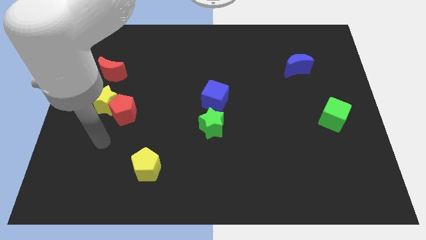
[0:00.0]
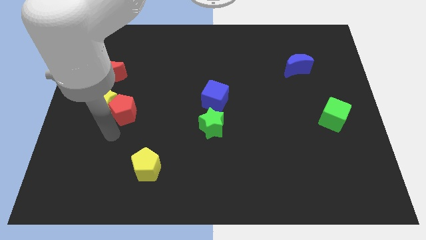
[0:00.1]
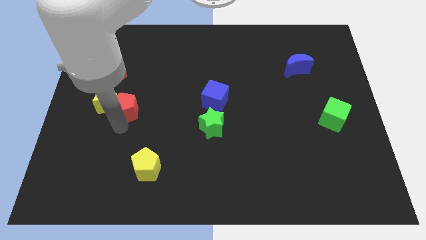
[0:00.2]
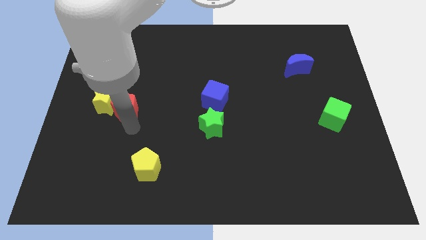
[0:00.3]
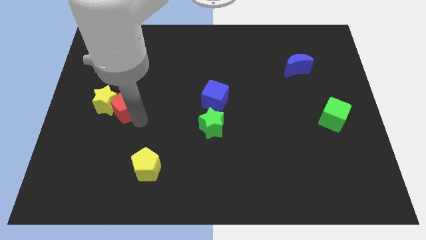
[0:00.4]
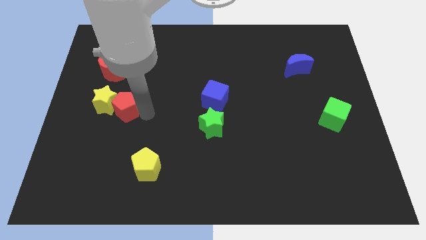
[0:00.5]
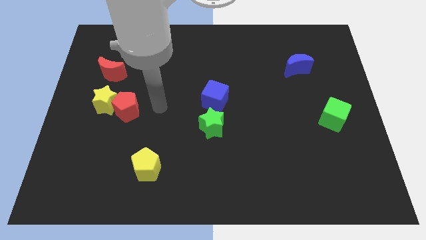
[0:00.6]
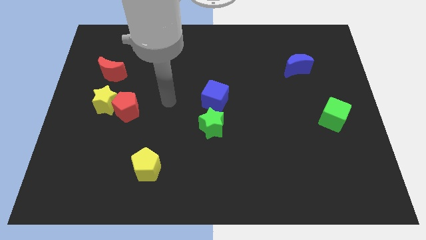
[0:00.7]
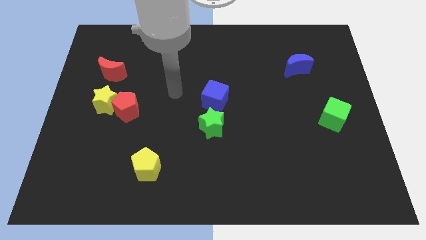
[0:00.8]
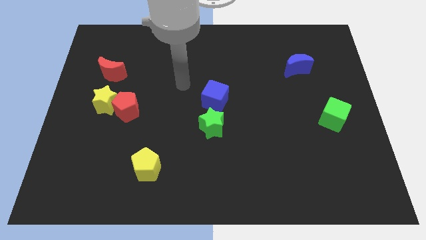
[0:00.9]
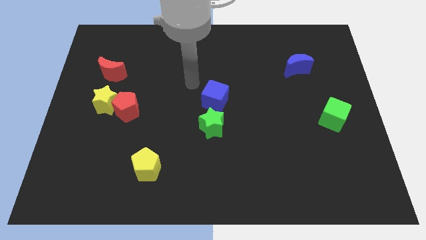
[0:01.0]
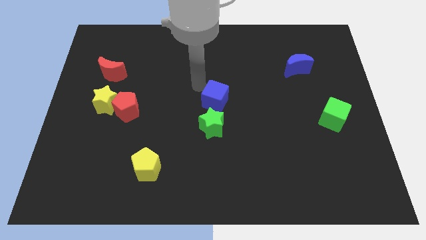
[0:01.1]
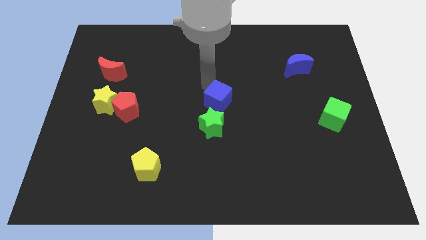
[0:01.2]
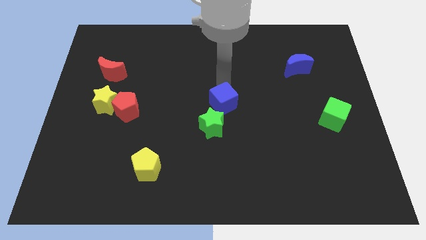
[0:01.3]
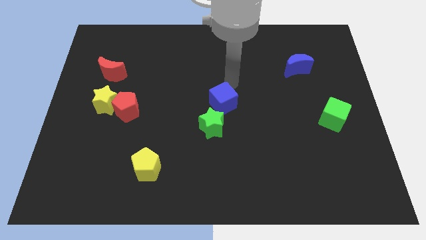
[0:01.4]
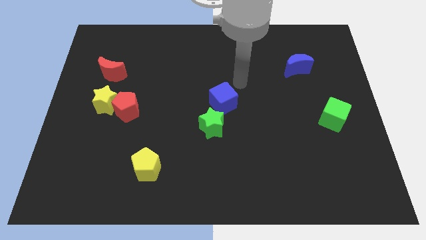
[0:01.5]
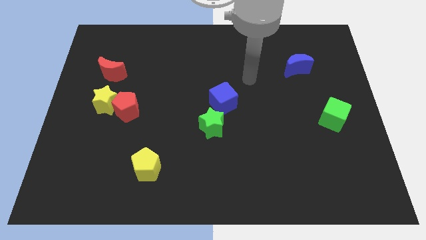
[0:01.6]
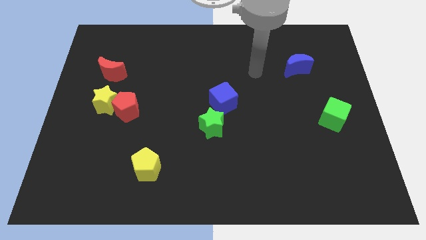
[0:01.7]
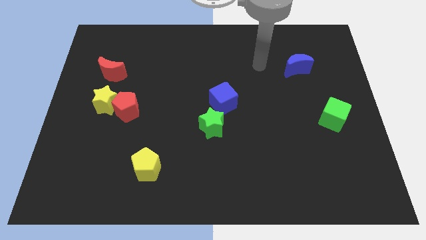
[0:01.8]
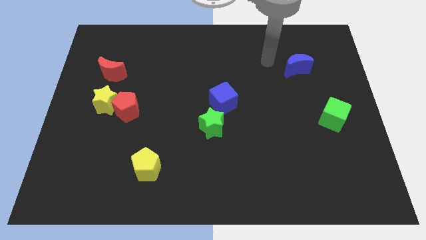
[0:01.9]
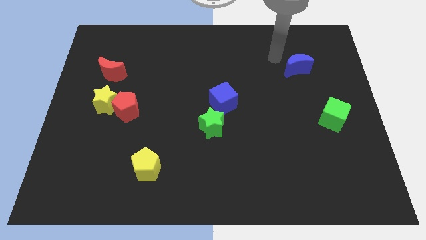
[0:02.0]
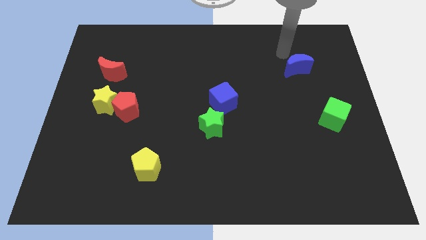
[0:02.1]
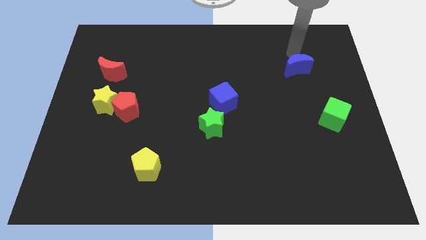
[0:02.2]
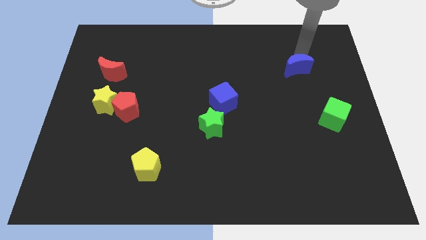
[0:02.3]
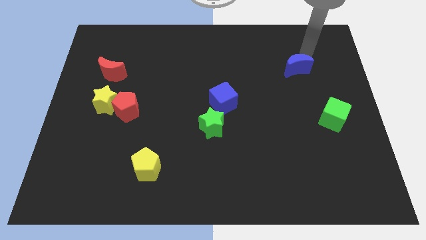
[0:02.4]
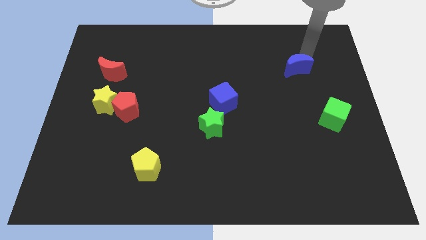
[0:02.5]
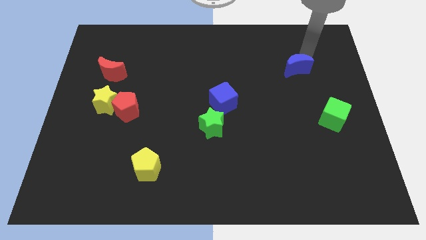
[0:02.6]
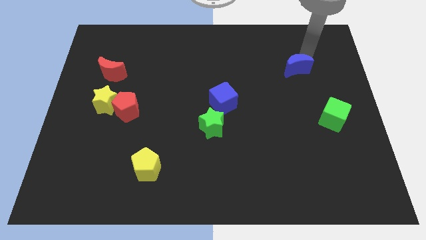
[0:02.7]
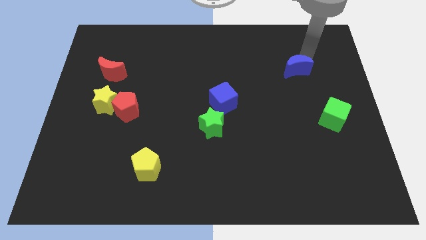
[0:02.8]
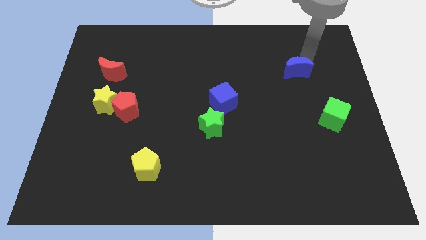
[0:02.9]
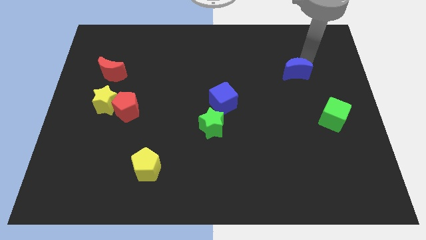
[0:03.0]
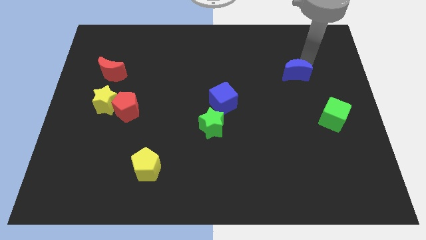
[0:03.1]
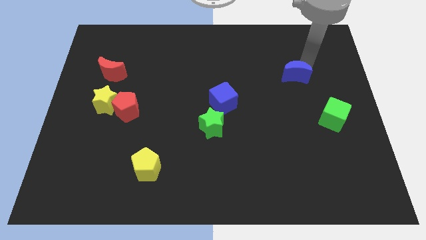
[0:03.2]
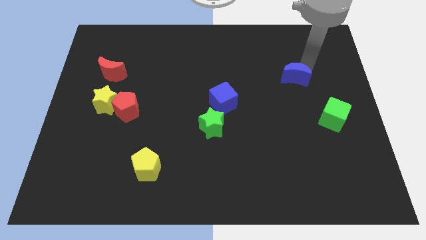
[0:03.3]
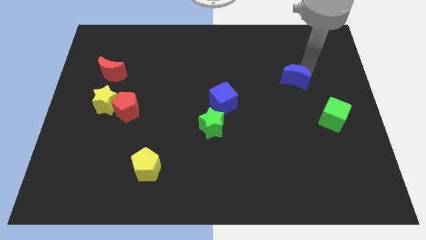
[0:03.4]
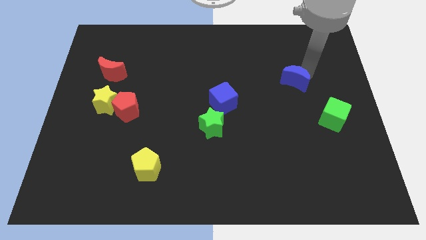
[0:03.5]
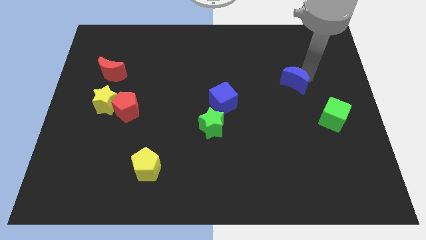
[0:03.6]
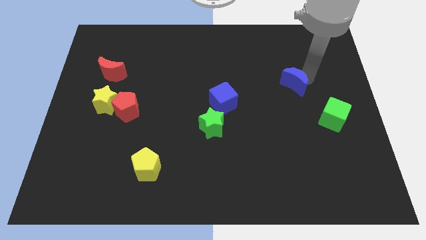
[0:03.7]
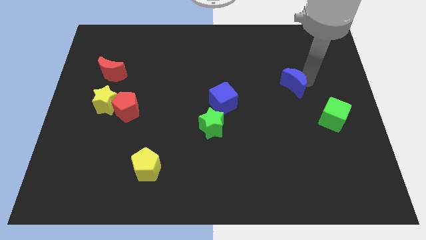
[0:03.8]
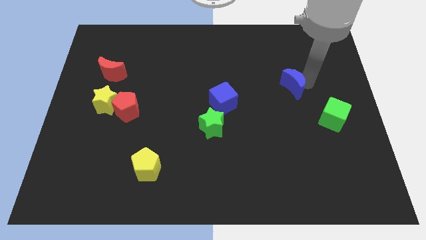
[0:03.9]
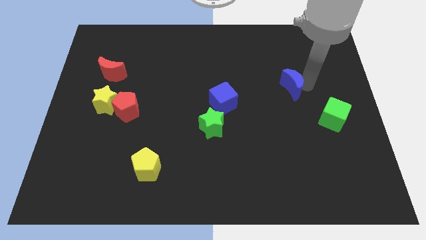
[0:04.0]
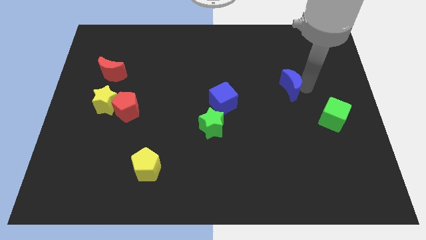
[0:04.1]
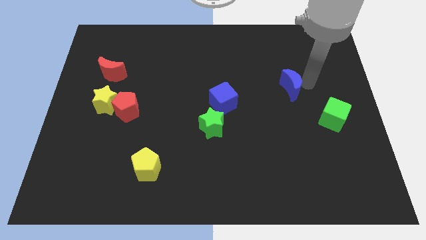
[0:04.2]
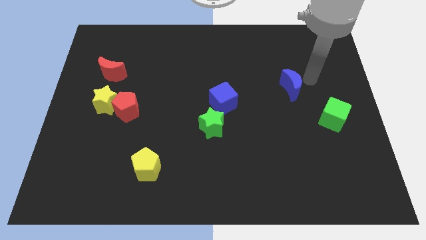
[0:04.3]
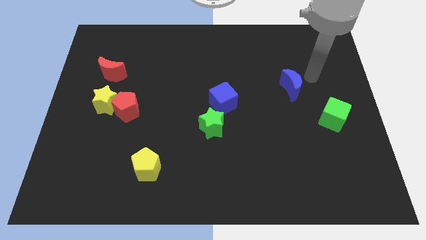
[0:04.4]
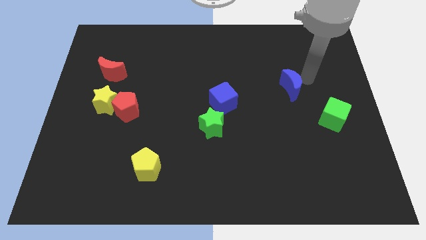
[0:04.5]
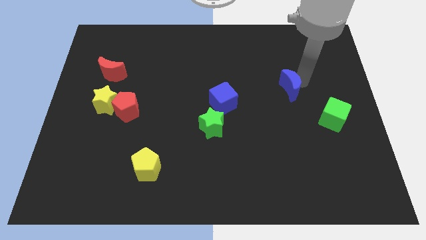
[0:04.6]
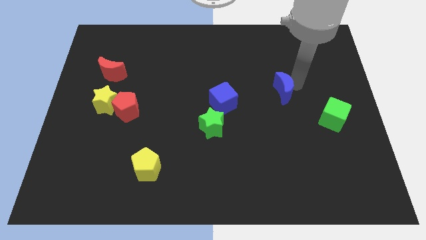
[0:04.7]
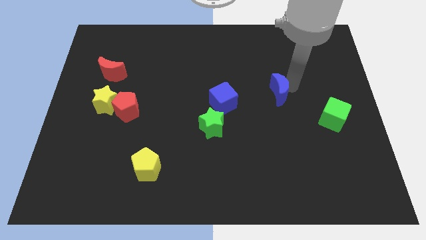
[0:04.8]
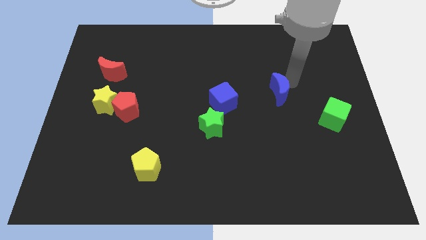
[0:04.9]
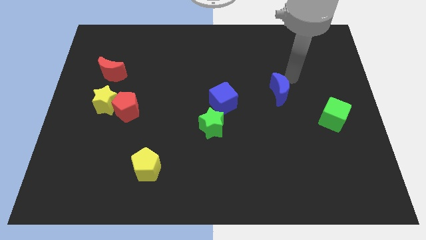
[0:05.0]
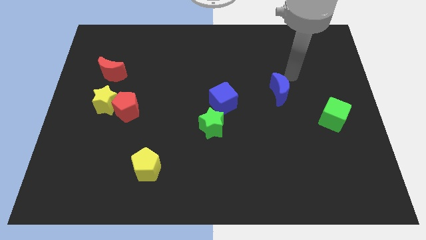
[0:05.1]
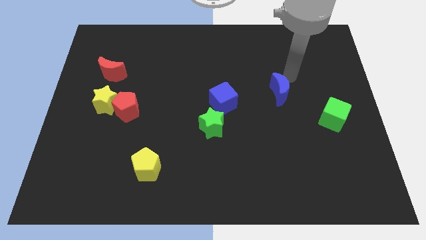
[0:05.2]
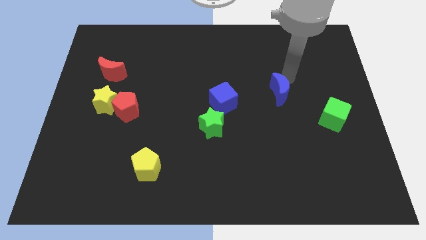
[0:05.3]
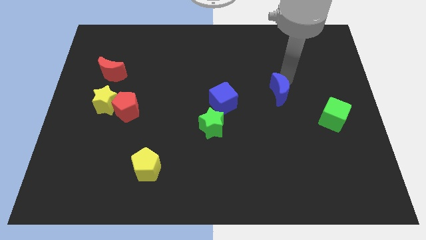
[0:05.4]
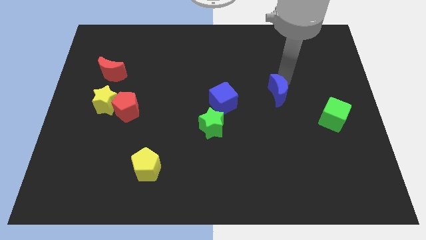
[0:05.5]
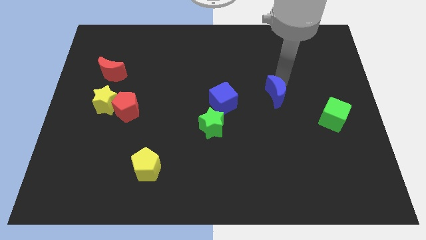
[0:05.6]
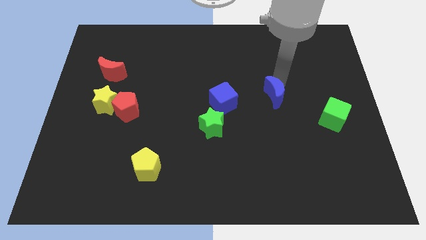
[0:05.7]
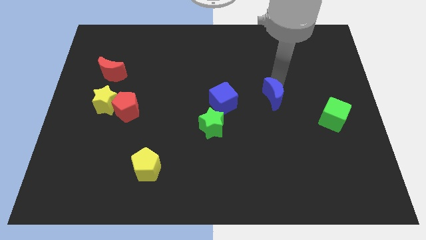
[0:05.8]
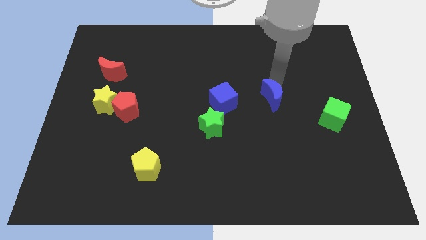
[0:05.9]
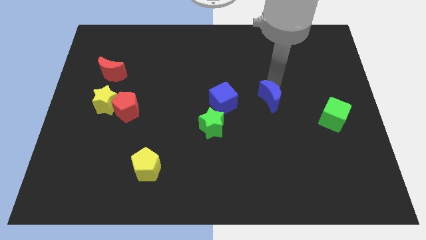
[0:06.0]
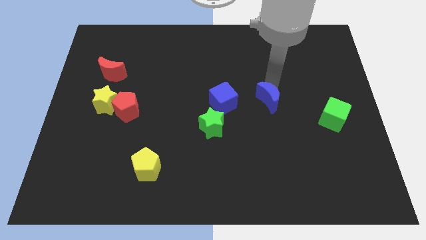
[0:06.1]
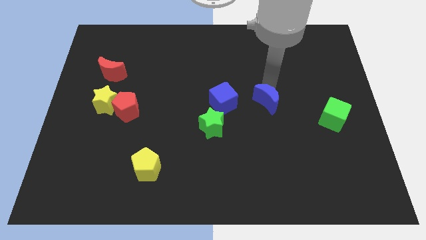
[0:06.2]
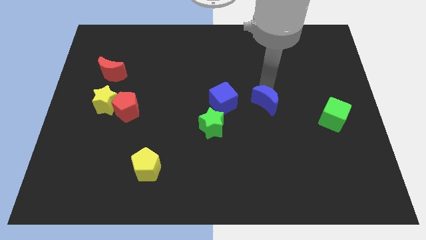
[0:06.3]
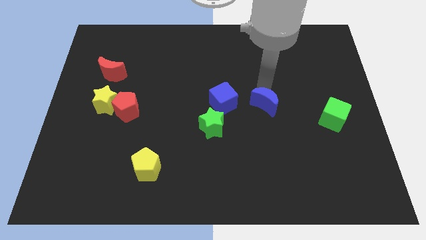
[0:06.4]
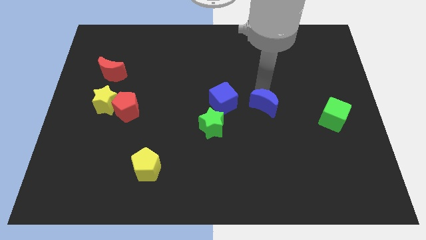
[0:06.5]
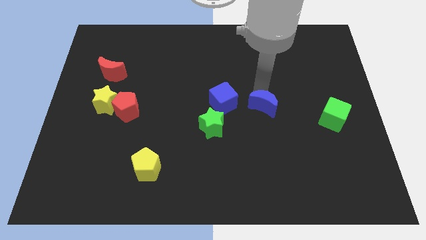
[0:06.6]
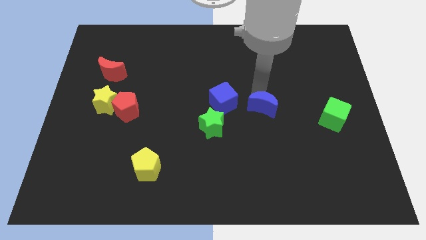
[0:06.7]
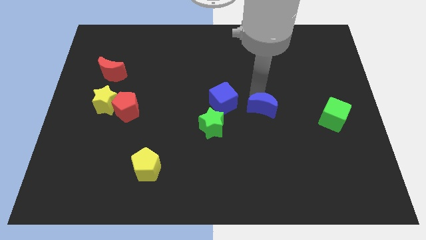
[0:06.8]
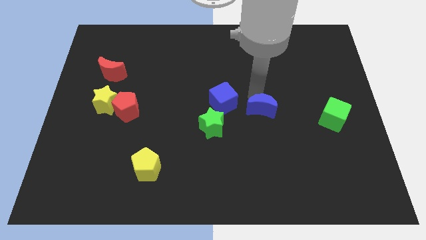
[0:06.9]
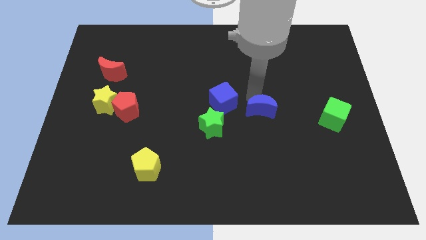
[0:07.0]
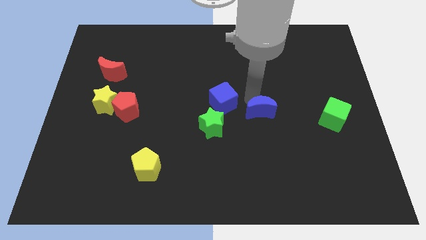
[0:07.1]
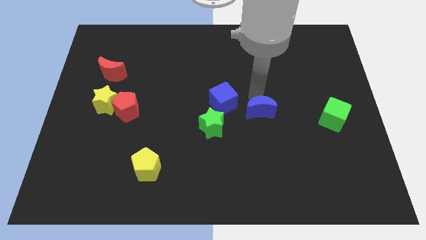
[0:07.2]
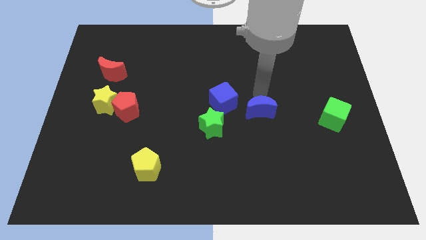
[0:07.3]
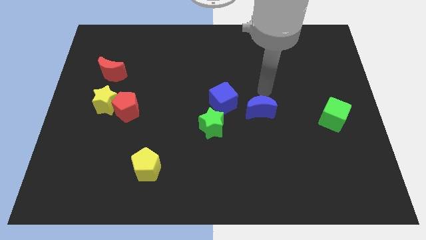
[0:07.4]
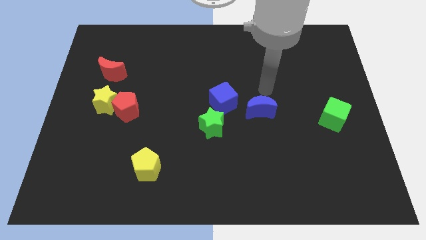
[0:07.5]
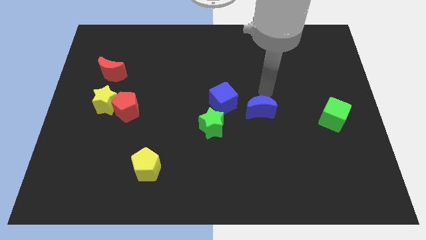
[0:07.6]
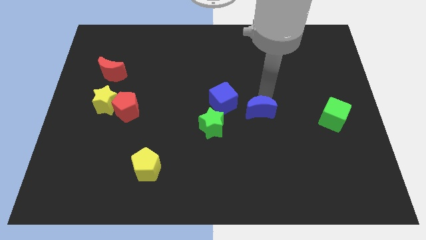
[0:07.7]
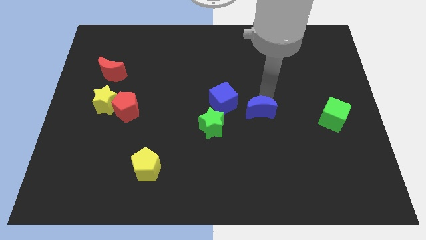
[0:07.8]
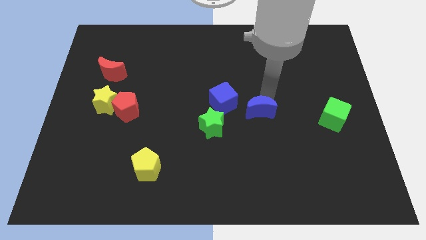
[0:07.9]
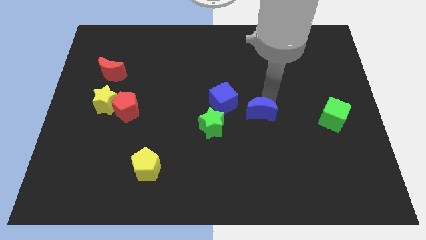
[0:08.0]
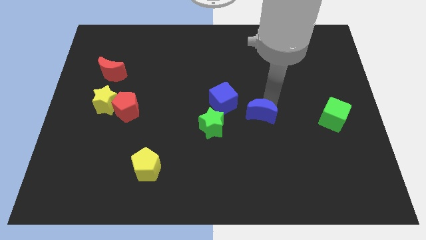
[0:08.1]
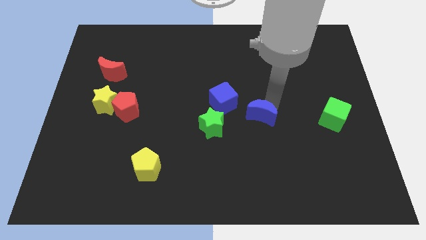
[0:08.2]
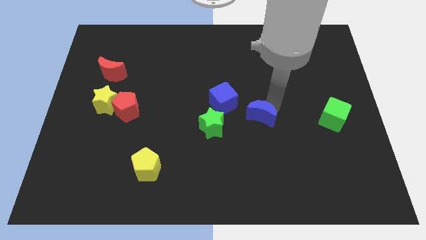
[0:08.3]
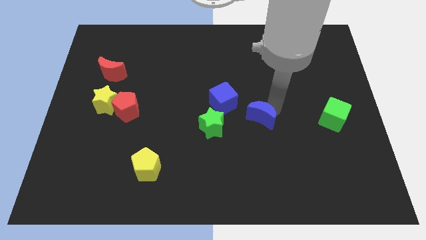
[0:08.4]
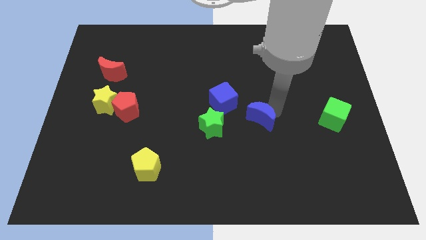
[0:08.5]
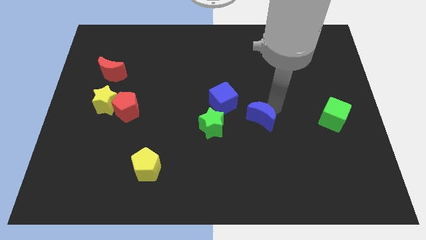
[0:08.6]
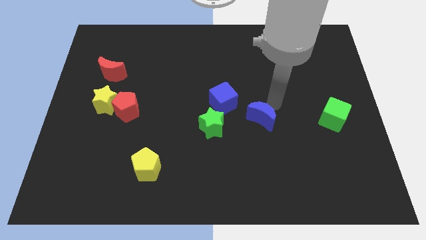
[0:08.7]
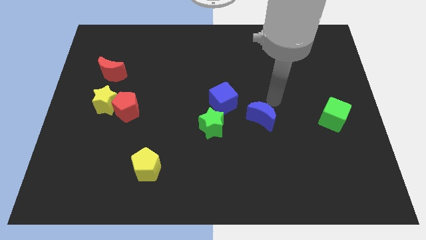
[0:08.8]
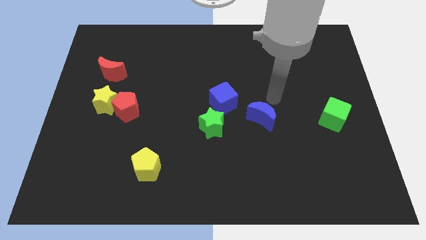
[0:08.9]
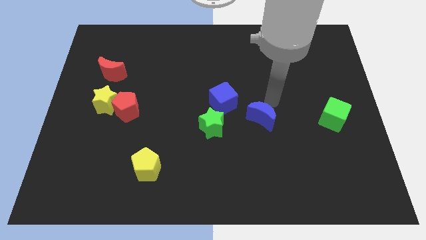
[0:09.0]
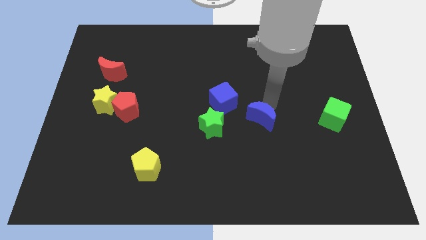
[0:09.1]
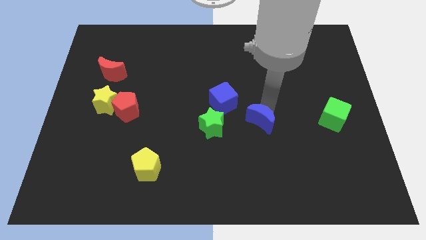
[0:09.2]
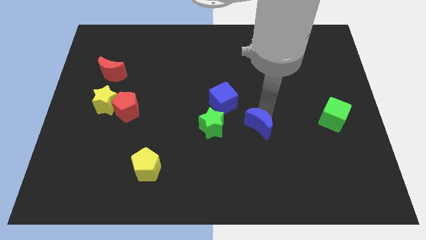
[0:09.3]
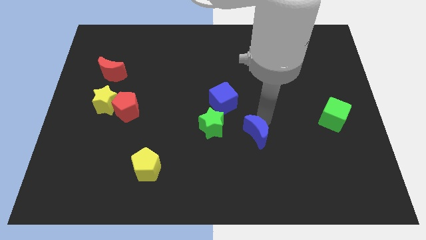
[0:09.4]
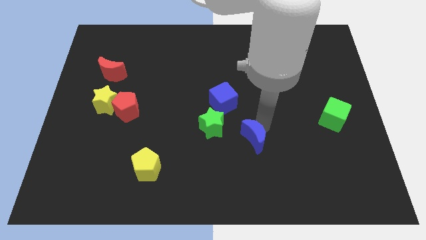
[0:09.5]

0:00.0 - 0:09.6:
put the blue moon diagonally down and to the right of the green star
